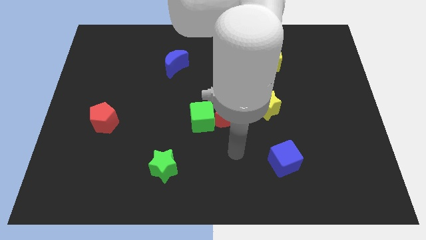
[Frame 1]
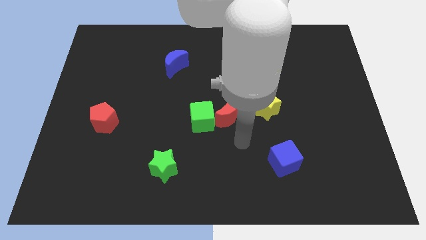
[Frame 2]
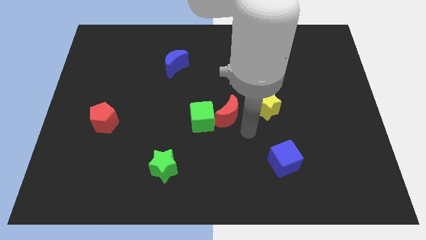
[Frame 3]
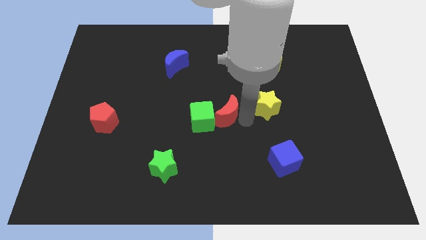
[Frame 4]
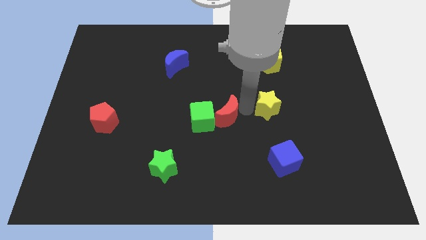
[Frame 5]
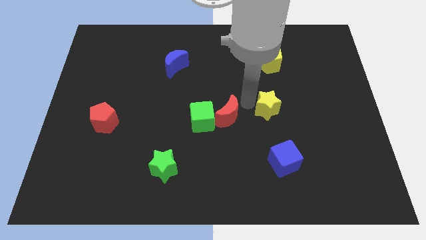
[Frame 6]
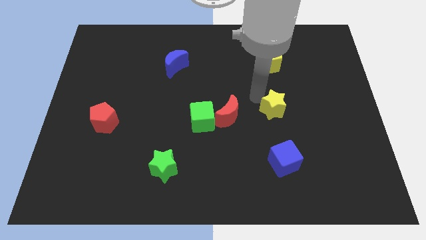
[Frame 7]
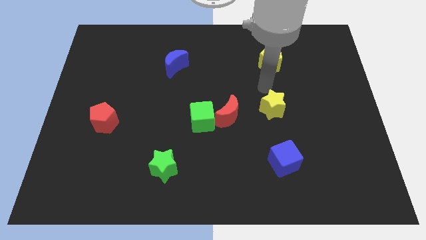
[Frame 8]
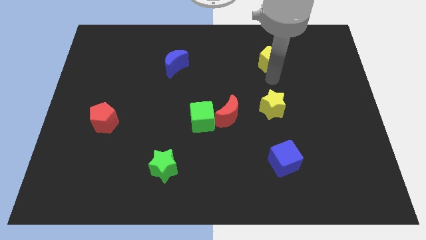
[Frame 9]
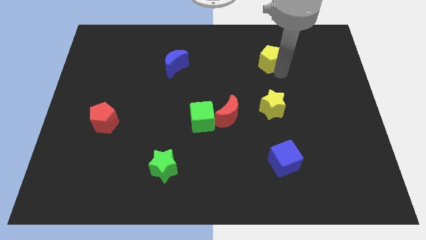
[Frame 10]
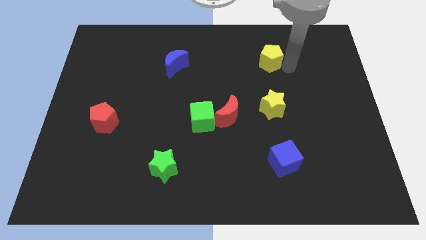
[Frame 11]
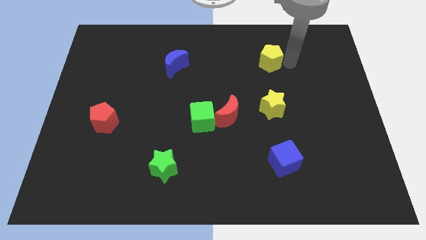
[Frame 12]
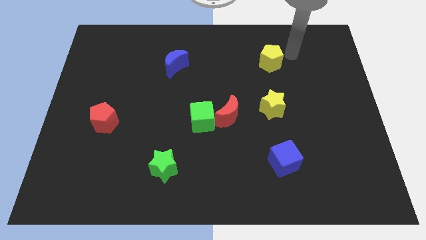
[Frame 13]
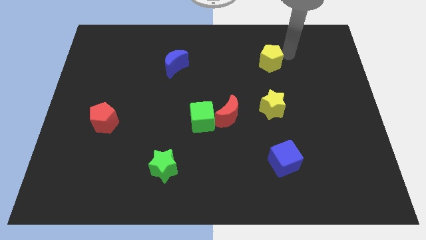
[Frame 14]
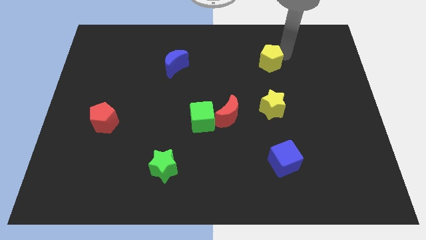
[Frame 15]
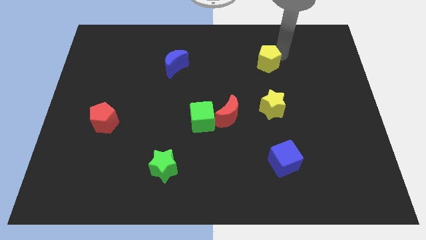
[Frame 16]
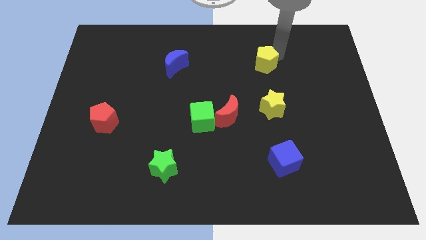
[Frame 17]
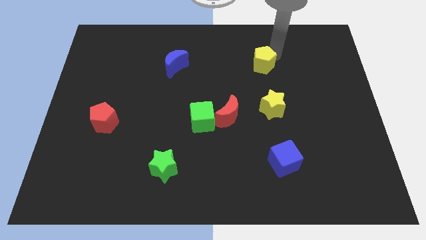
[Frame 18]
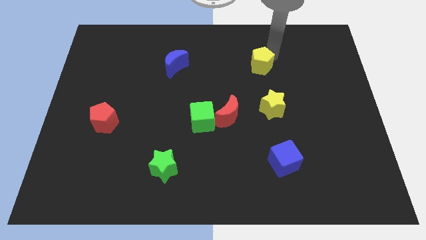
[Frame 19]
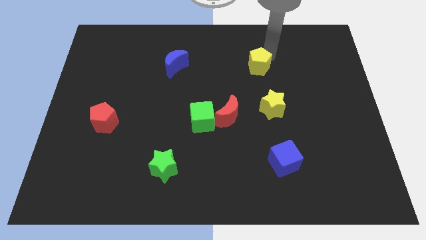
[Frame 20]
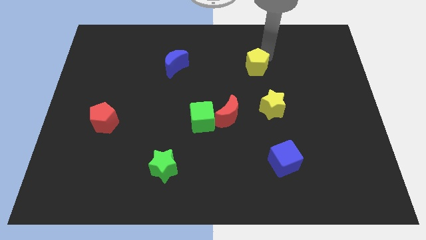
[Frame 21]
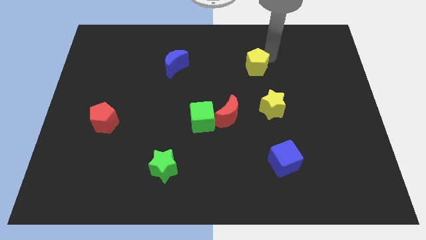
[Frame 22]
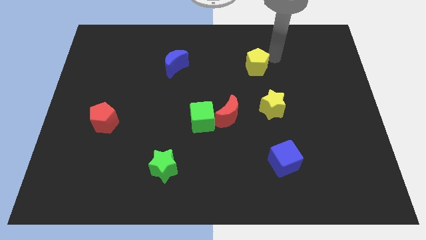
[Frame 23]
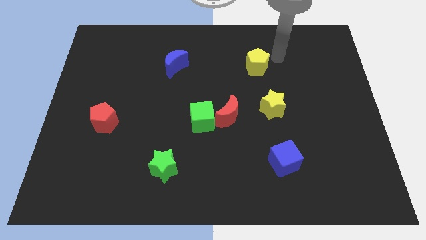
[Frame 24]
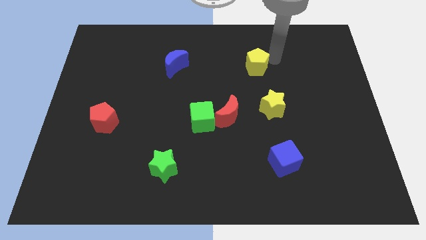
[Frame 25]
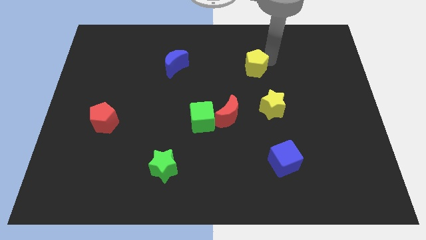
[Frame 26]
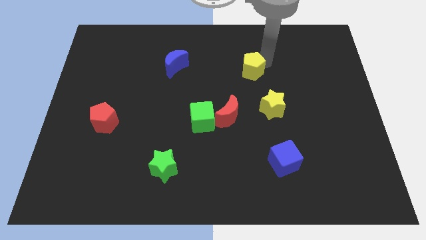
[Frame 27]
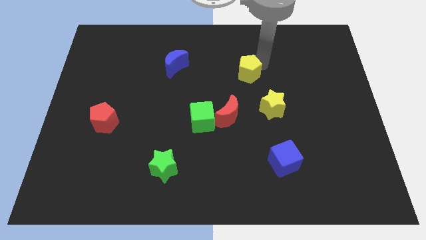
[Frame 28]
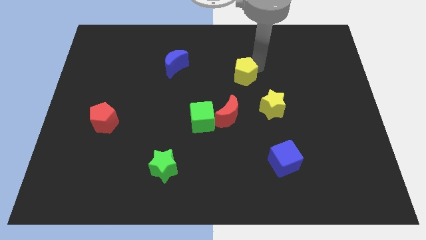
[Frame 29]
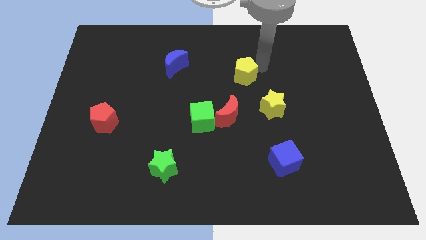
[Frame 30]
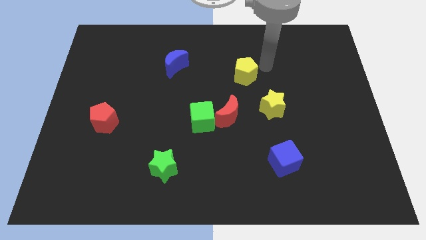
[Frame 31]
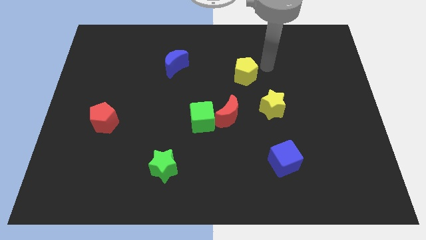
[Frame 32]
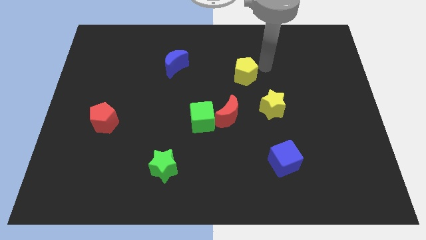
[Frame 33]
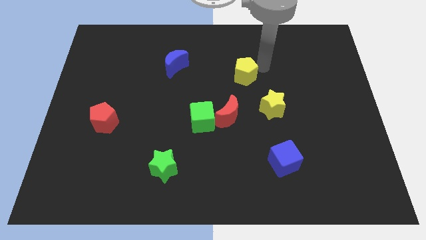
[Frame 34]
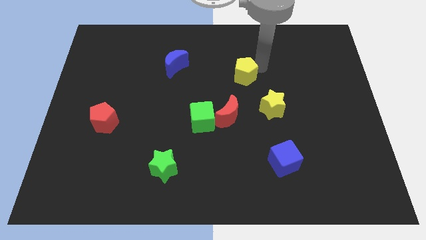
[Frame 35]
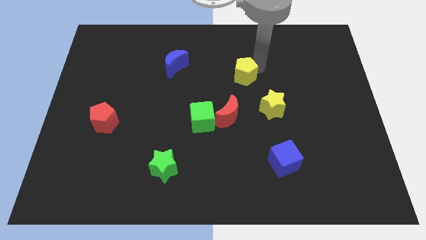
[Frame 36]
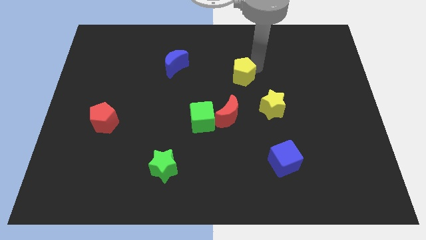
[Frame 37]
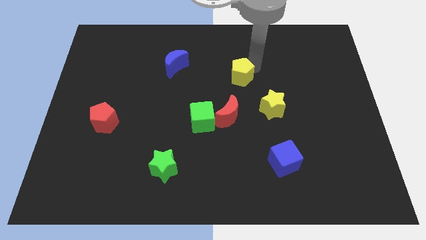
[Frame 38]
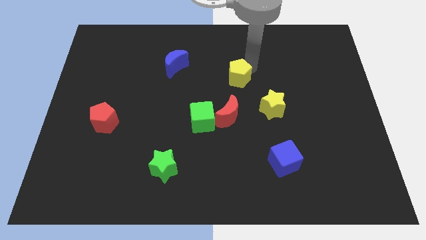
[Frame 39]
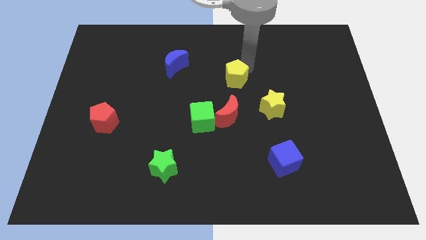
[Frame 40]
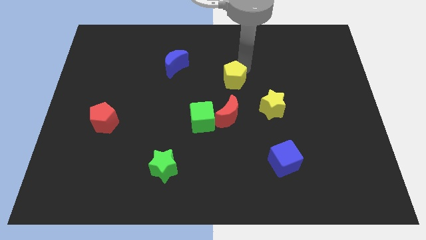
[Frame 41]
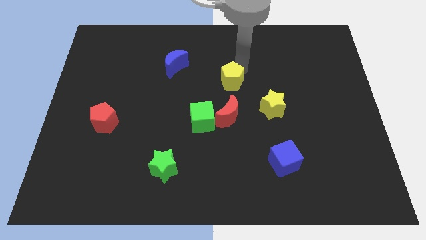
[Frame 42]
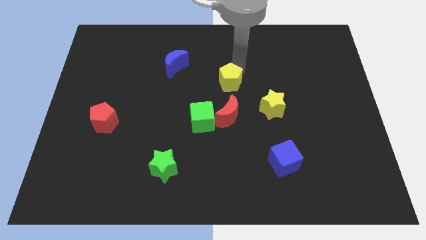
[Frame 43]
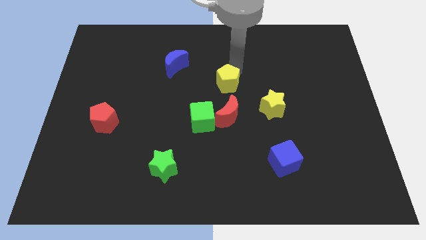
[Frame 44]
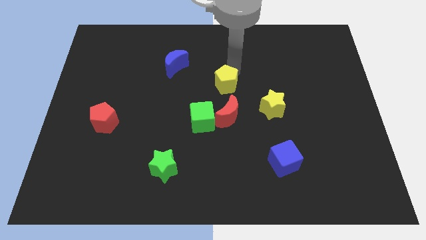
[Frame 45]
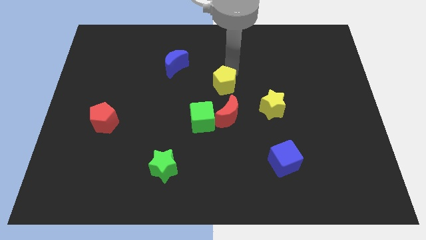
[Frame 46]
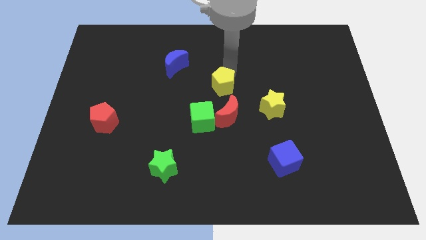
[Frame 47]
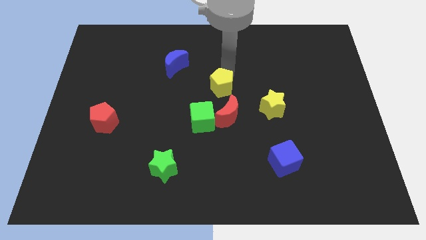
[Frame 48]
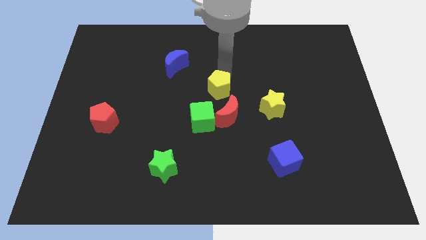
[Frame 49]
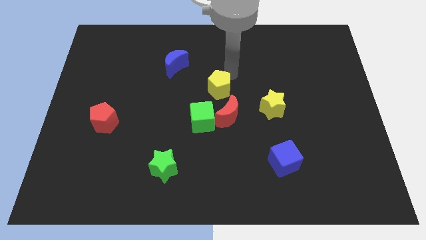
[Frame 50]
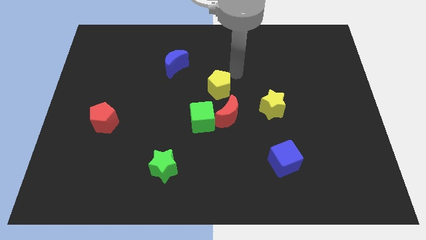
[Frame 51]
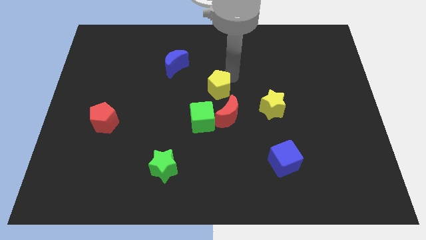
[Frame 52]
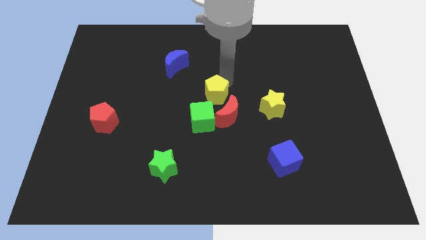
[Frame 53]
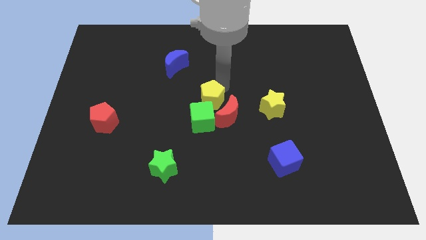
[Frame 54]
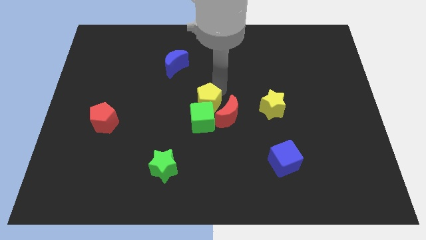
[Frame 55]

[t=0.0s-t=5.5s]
push the yellow pentagon down and then to the left

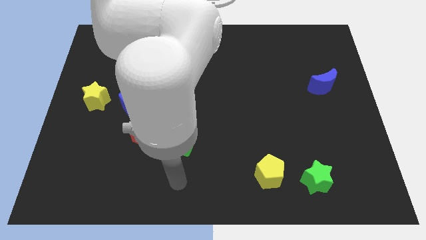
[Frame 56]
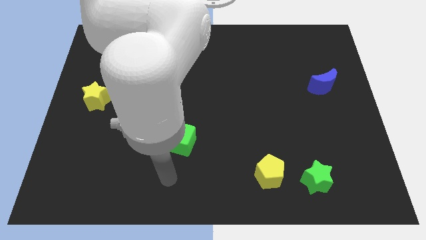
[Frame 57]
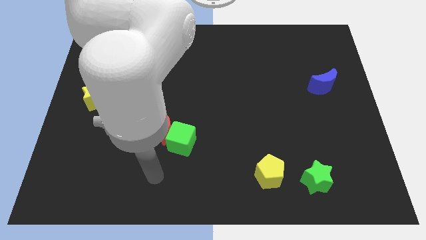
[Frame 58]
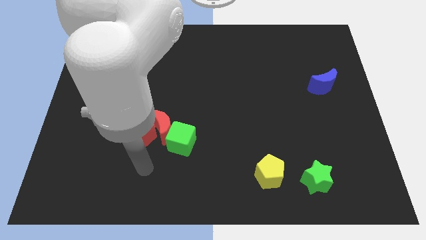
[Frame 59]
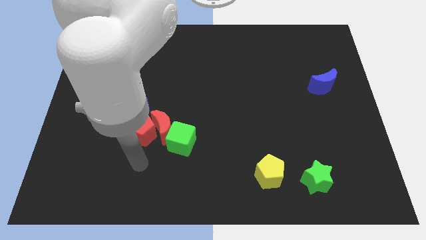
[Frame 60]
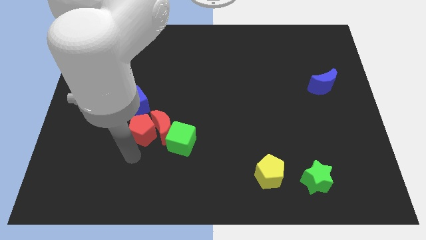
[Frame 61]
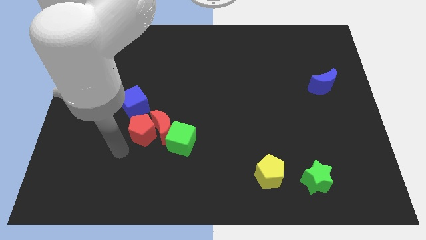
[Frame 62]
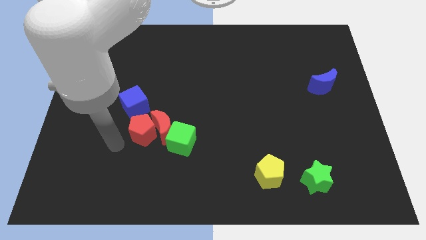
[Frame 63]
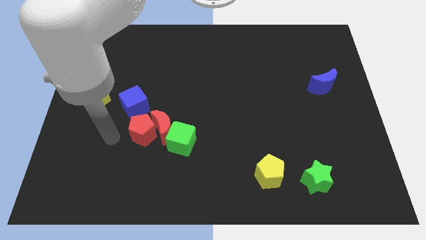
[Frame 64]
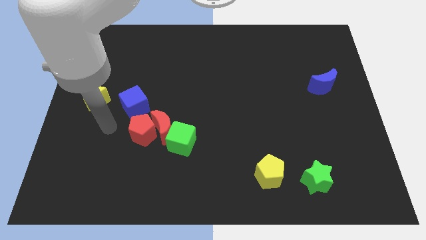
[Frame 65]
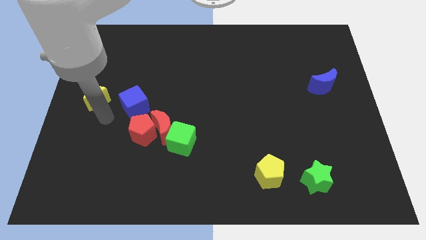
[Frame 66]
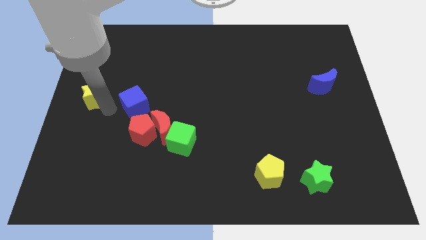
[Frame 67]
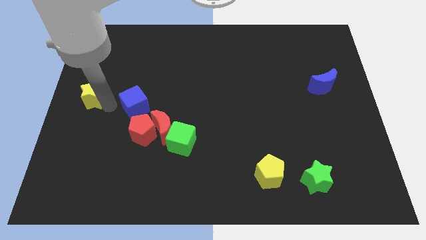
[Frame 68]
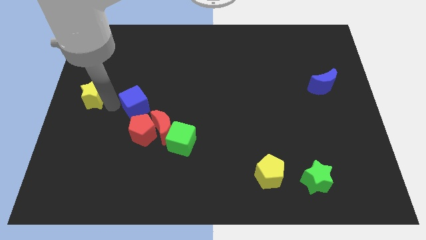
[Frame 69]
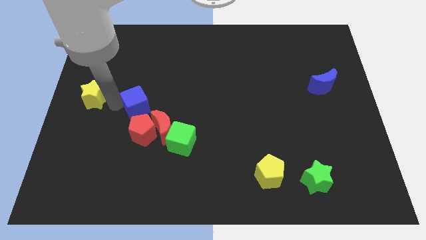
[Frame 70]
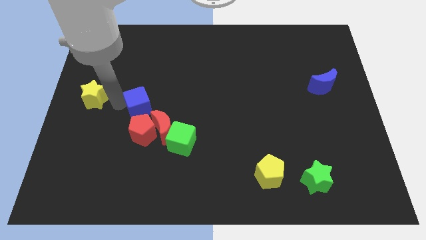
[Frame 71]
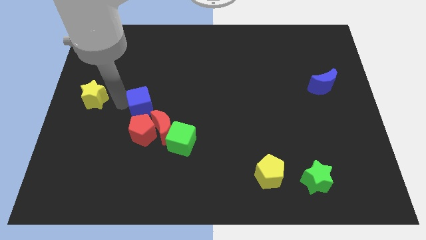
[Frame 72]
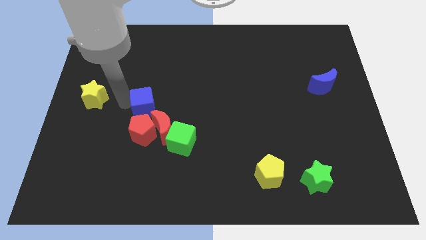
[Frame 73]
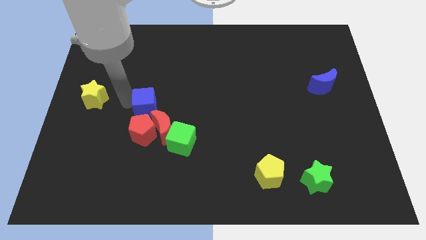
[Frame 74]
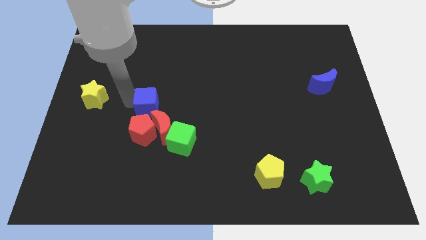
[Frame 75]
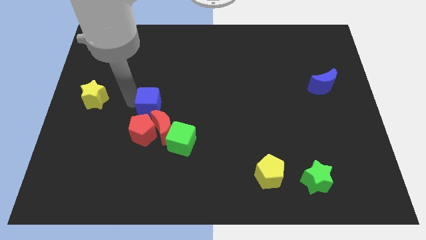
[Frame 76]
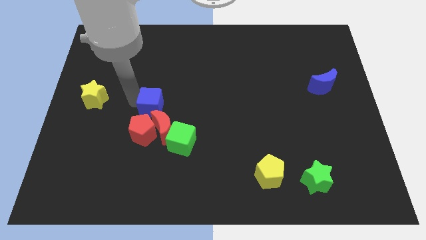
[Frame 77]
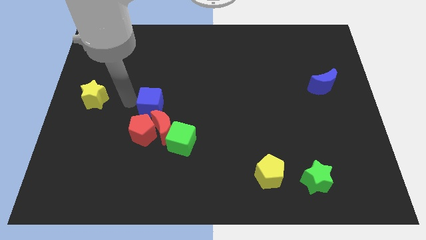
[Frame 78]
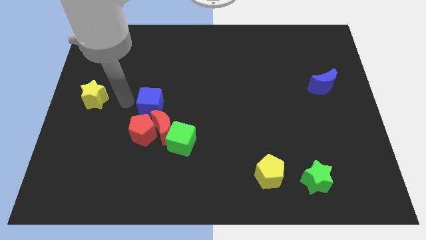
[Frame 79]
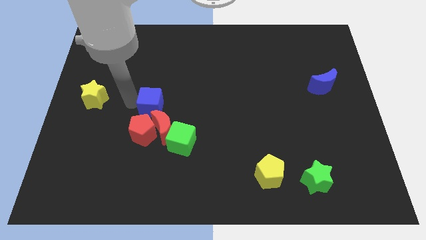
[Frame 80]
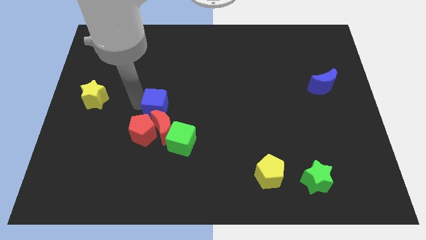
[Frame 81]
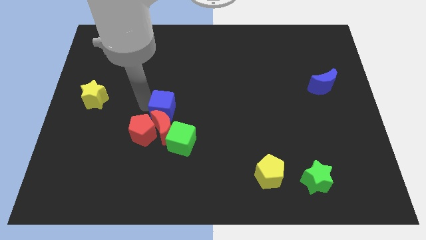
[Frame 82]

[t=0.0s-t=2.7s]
push the blue cube to the right a little bit
